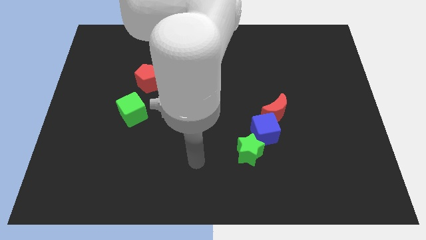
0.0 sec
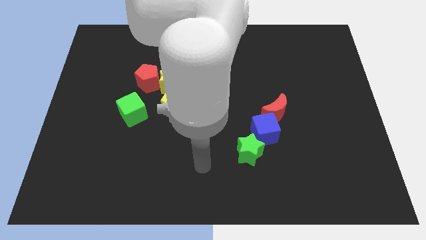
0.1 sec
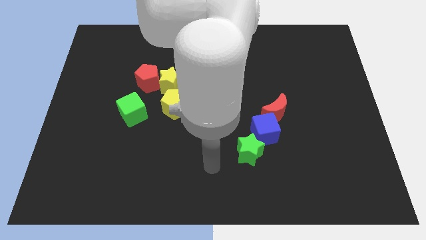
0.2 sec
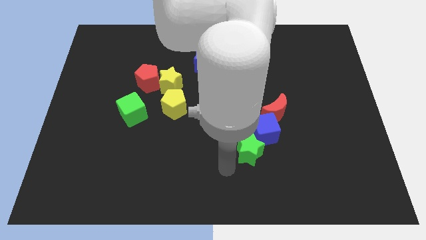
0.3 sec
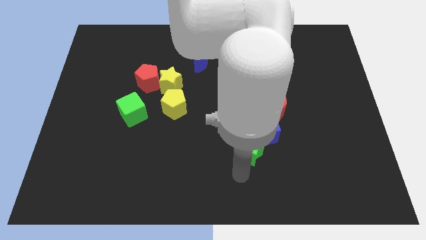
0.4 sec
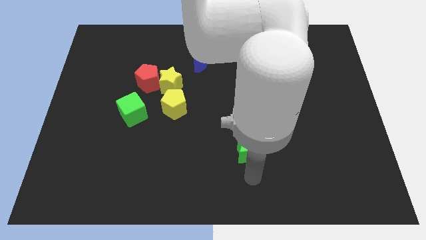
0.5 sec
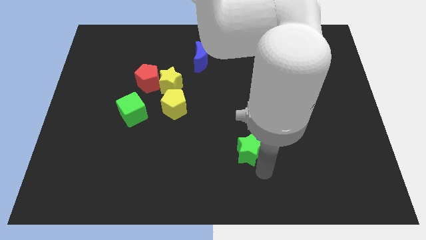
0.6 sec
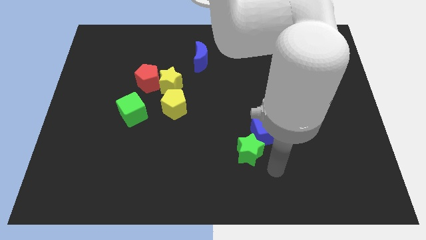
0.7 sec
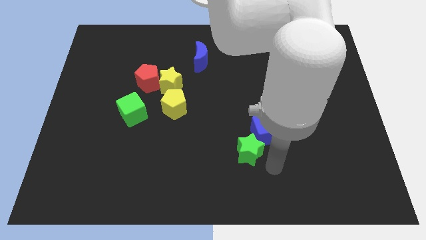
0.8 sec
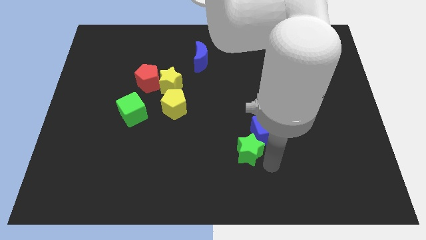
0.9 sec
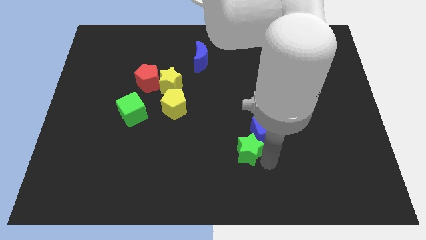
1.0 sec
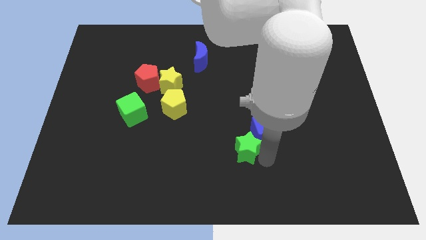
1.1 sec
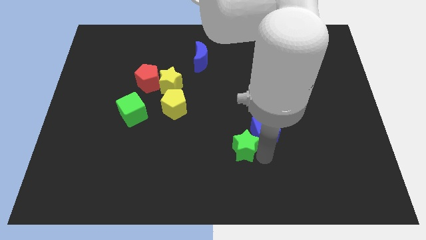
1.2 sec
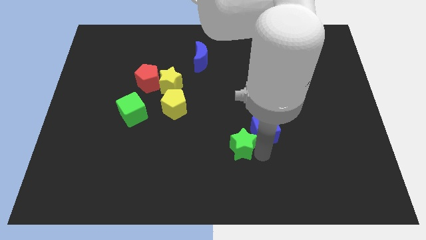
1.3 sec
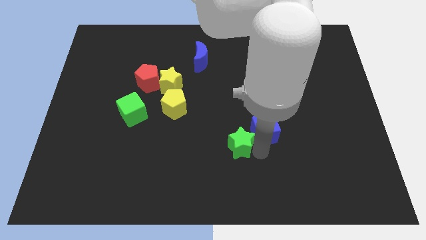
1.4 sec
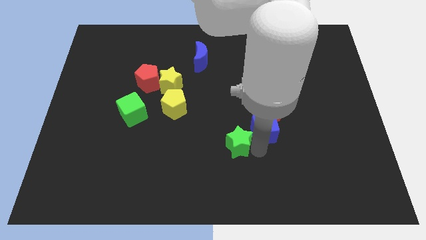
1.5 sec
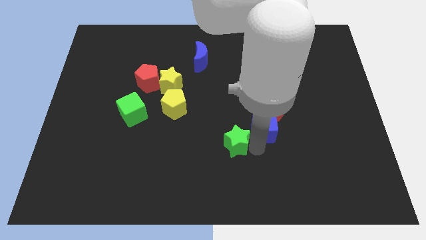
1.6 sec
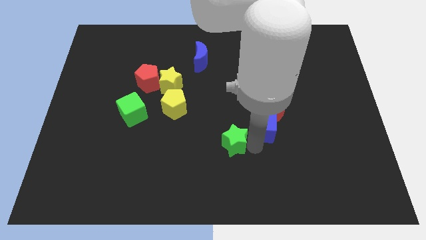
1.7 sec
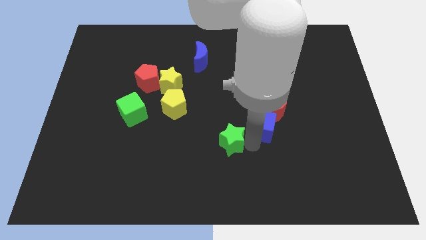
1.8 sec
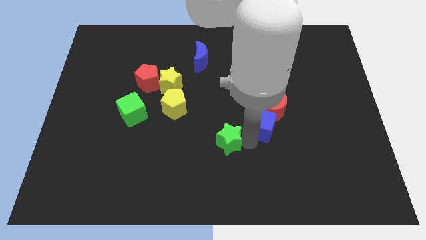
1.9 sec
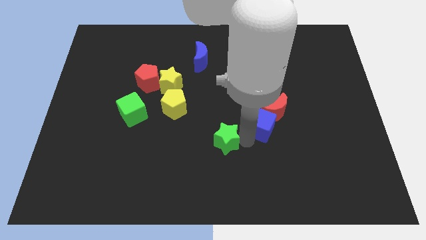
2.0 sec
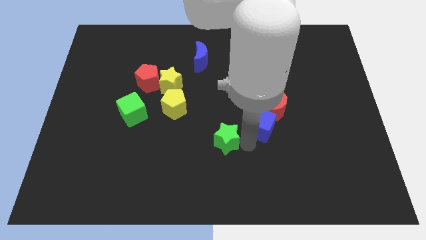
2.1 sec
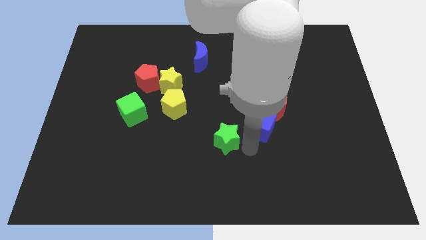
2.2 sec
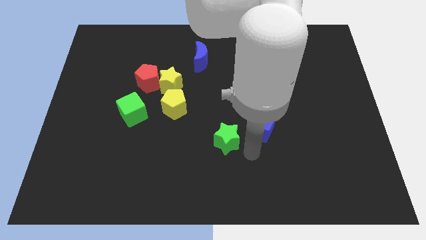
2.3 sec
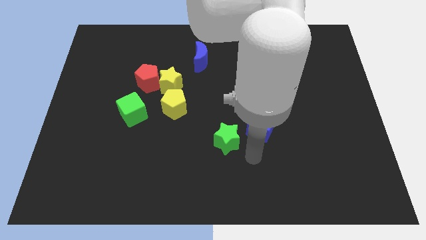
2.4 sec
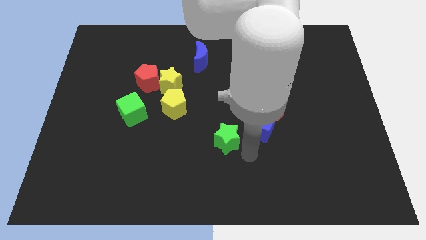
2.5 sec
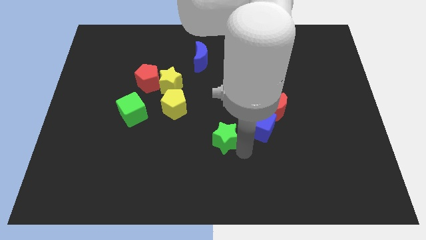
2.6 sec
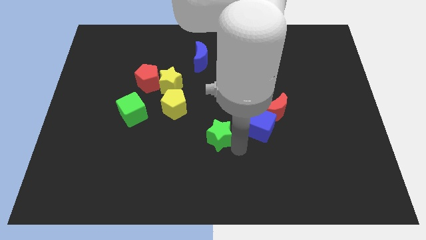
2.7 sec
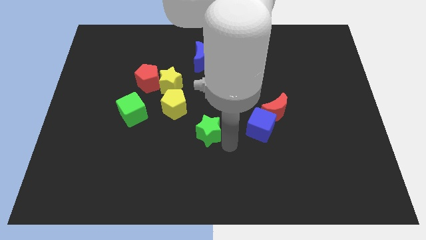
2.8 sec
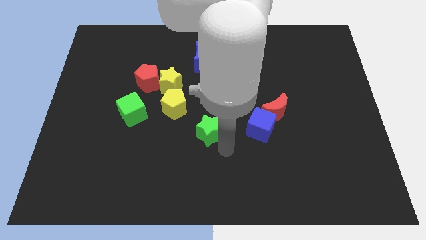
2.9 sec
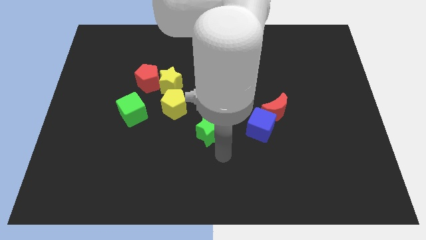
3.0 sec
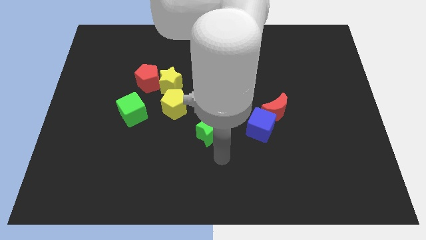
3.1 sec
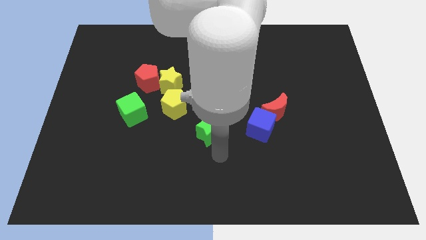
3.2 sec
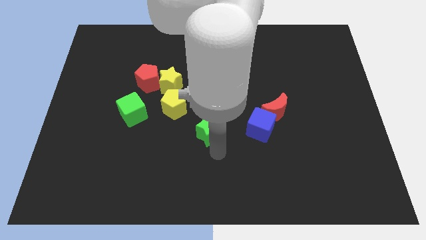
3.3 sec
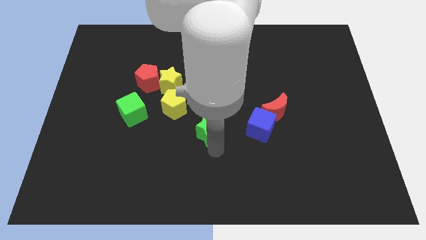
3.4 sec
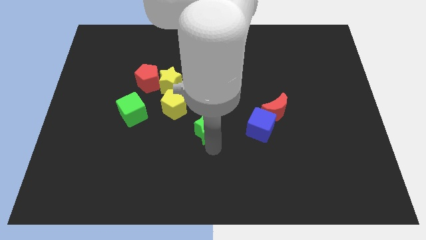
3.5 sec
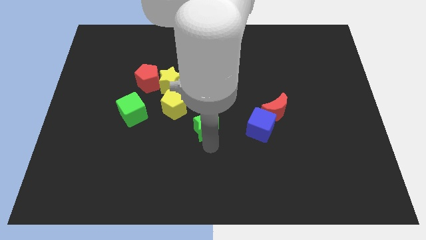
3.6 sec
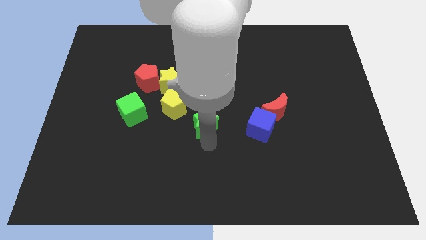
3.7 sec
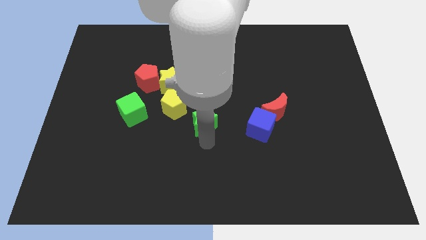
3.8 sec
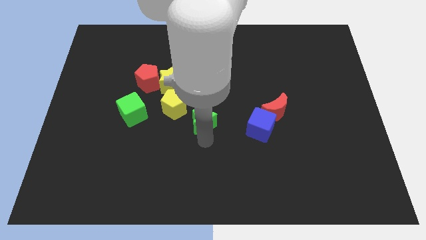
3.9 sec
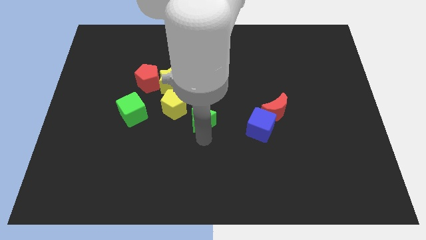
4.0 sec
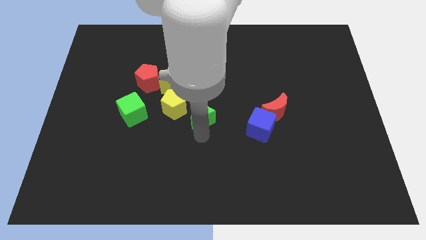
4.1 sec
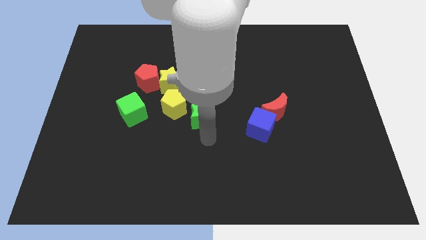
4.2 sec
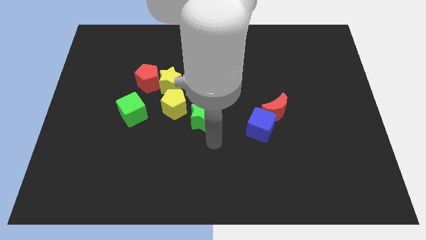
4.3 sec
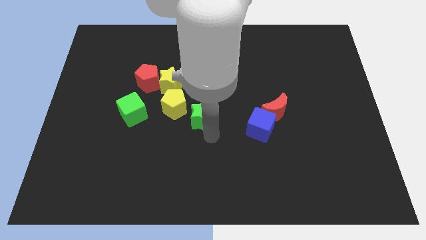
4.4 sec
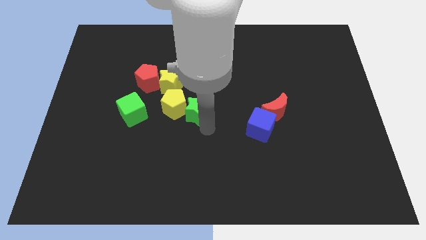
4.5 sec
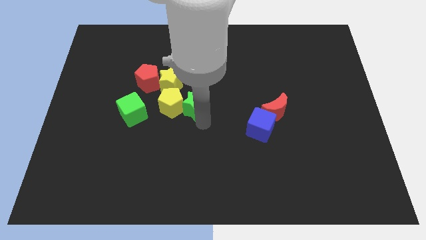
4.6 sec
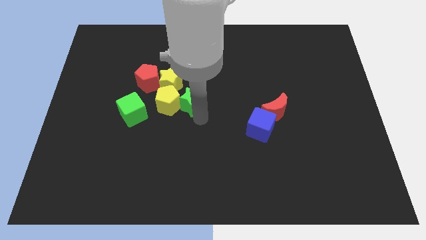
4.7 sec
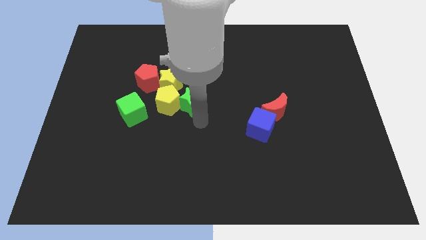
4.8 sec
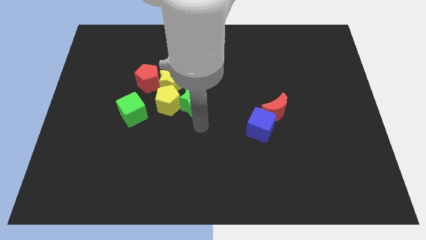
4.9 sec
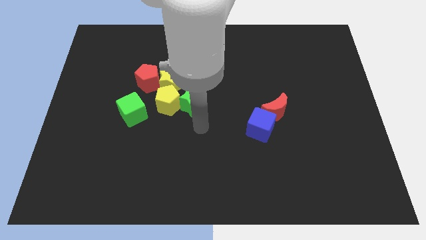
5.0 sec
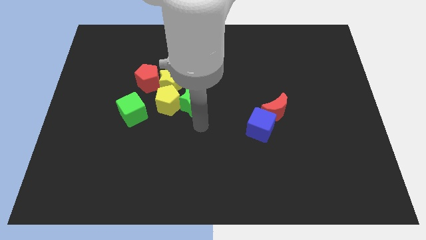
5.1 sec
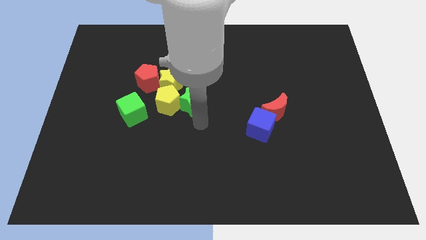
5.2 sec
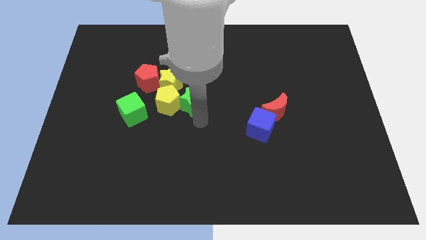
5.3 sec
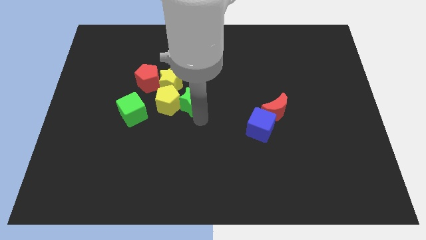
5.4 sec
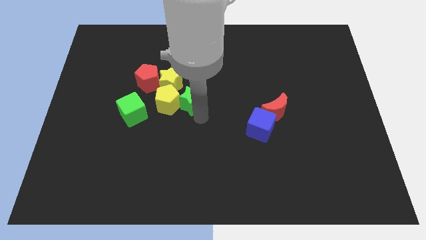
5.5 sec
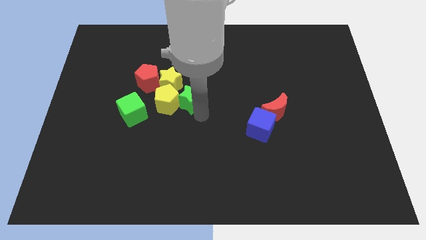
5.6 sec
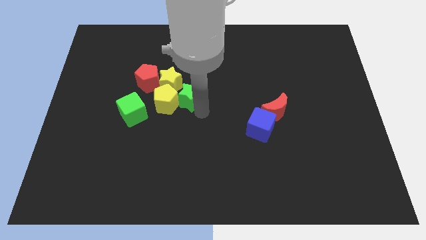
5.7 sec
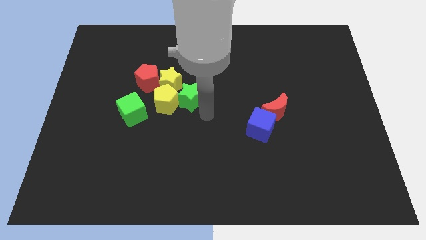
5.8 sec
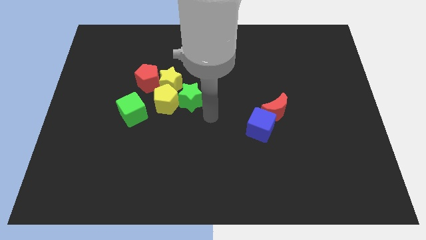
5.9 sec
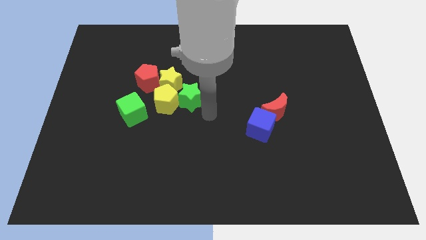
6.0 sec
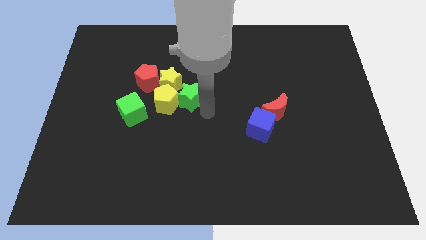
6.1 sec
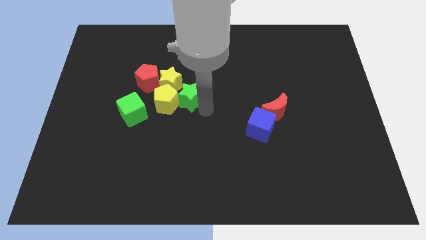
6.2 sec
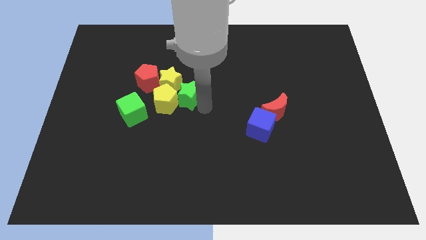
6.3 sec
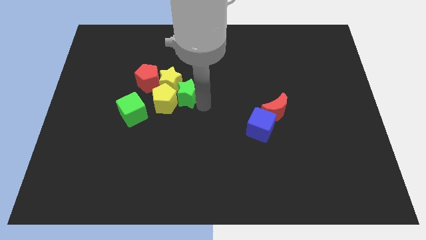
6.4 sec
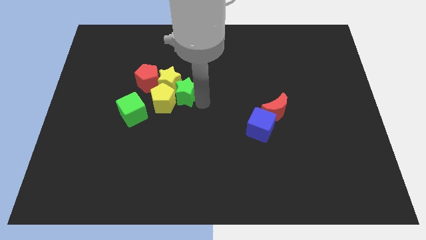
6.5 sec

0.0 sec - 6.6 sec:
put the green star next to the yellow star

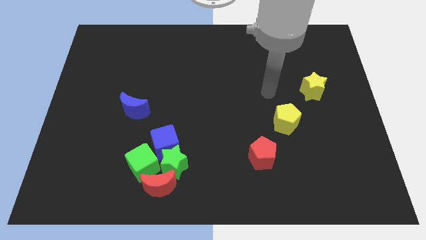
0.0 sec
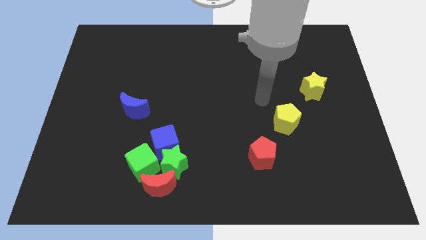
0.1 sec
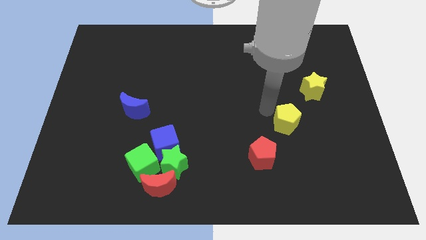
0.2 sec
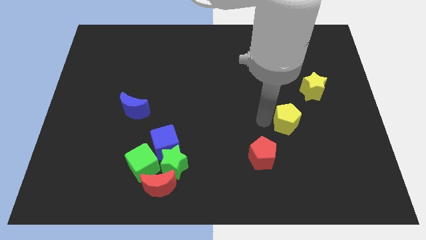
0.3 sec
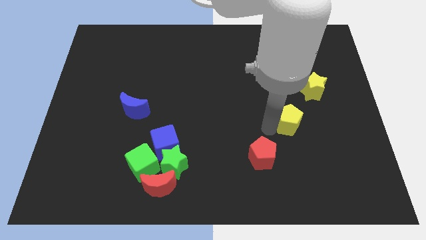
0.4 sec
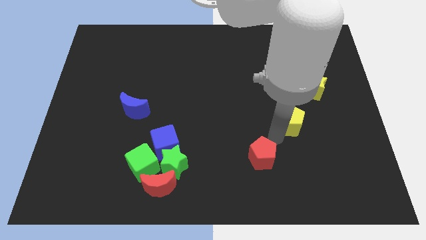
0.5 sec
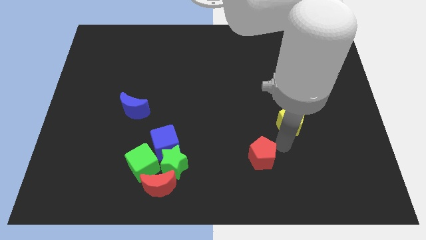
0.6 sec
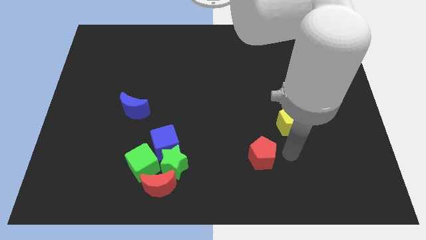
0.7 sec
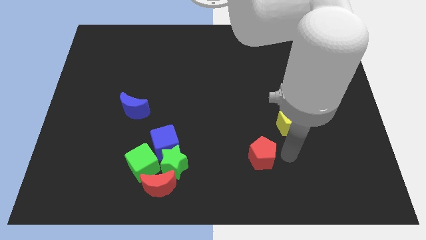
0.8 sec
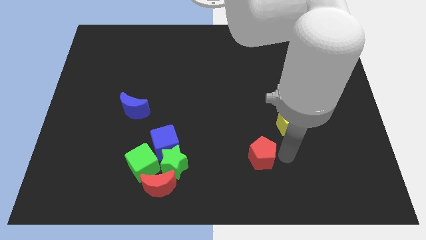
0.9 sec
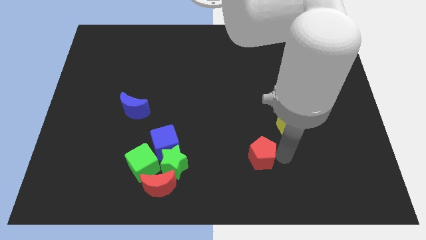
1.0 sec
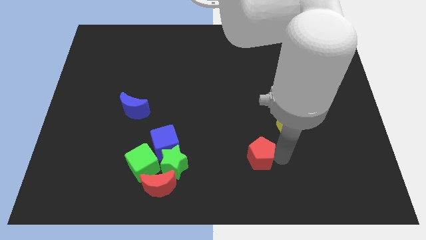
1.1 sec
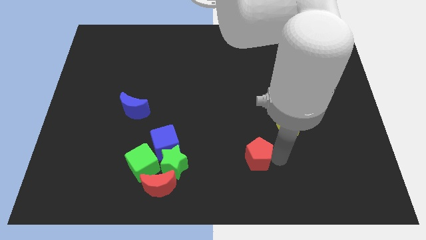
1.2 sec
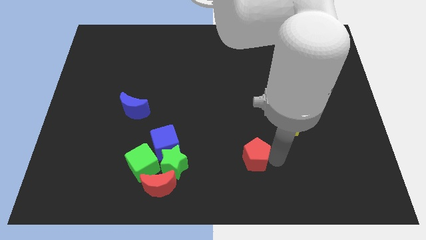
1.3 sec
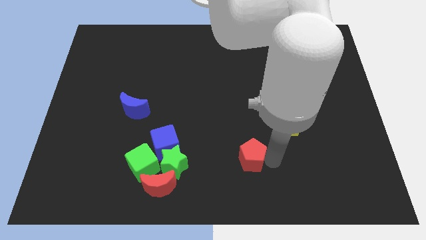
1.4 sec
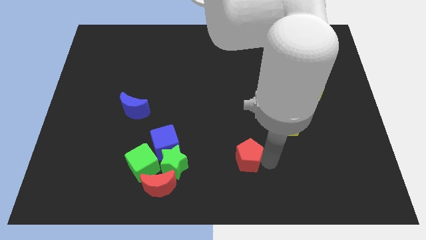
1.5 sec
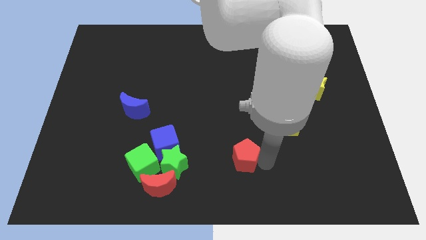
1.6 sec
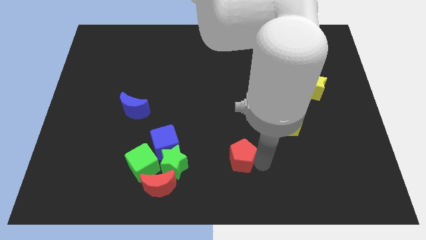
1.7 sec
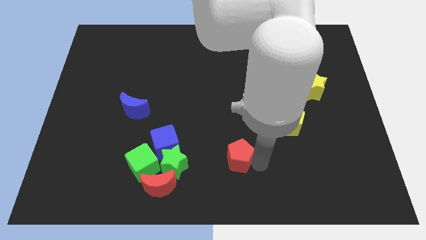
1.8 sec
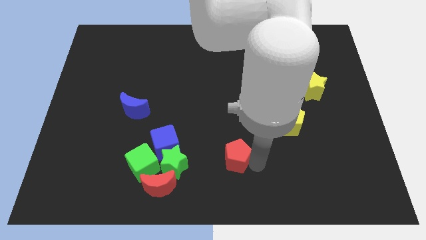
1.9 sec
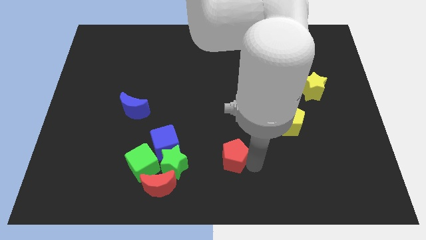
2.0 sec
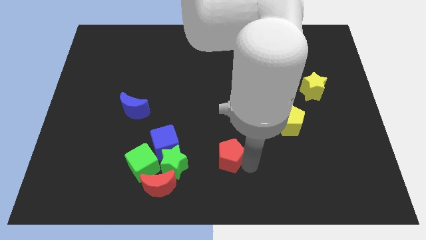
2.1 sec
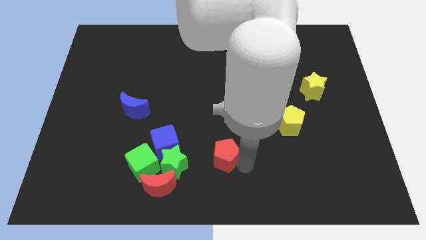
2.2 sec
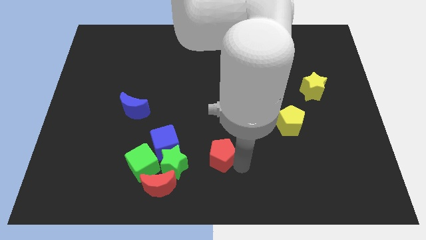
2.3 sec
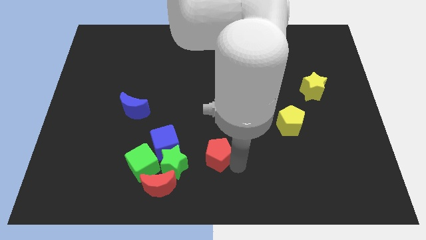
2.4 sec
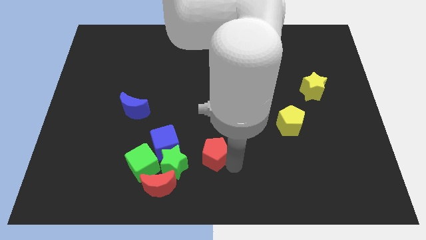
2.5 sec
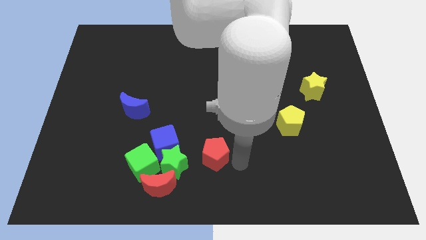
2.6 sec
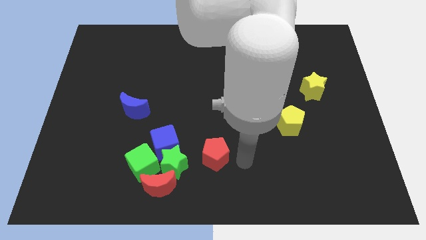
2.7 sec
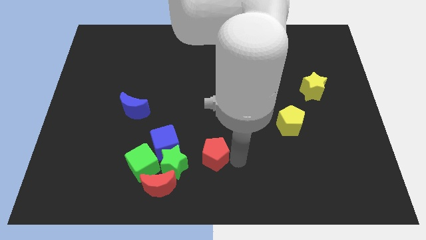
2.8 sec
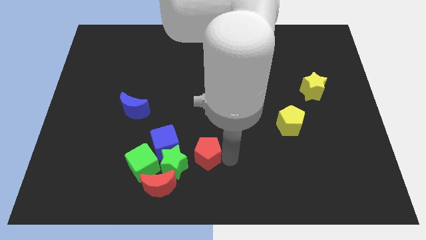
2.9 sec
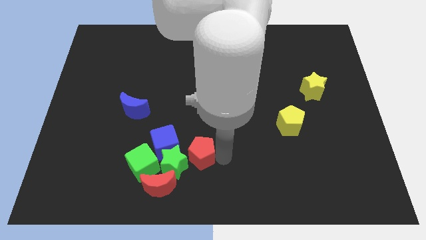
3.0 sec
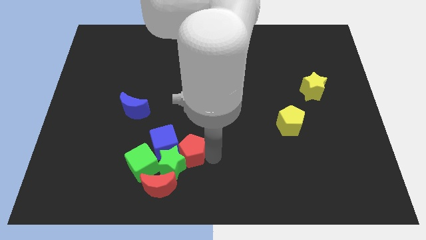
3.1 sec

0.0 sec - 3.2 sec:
put the red pentagon to the blue cube
